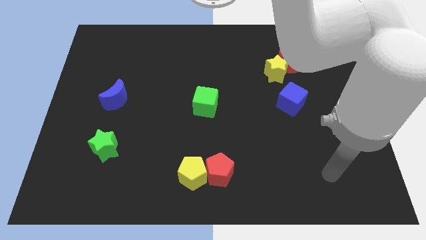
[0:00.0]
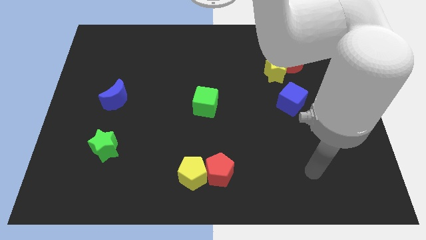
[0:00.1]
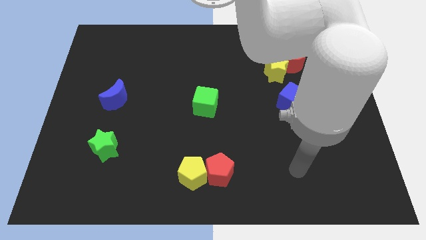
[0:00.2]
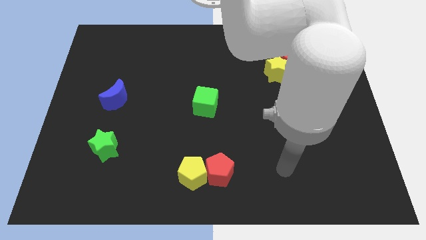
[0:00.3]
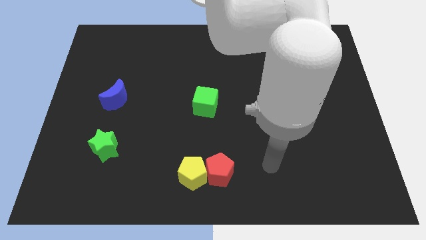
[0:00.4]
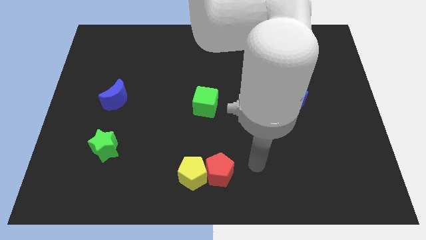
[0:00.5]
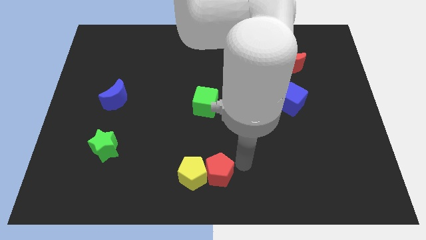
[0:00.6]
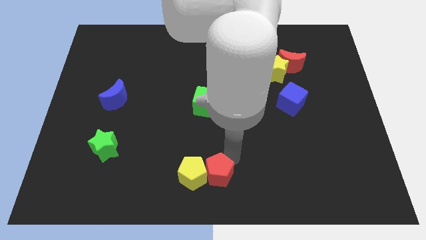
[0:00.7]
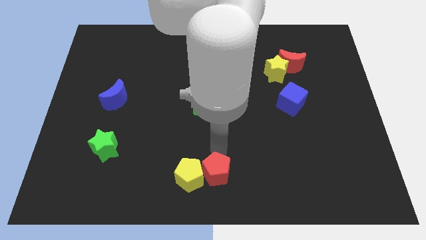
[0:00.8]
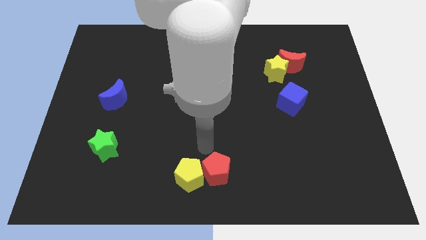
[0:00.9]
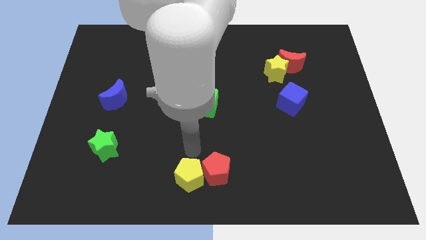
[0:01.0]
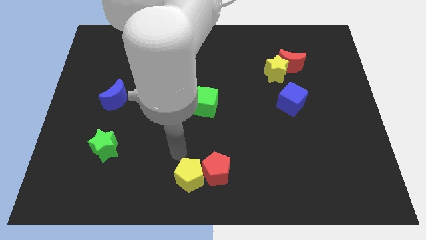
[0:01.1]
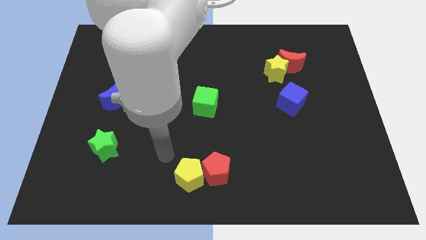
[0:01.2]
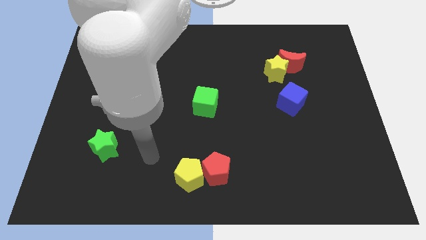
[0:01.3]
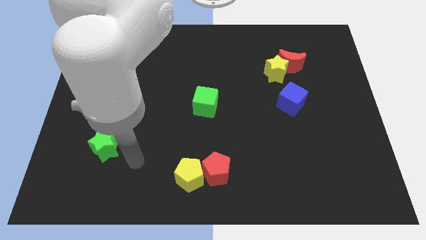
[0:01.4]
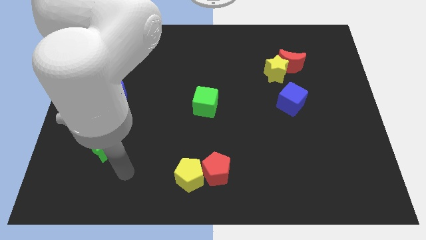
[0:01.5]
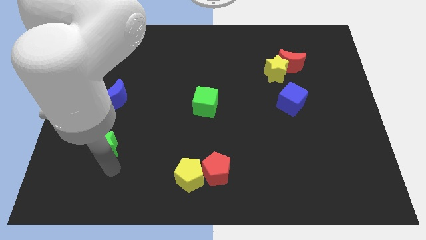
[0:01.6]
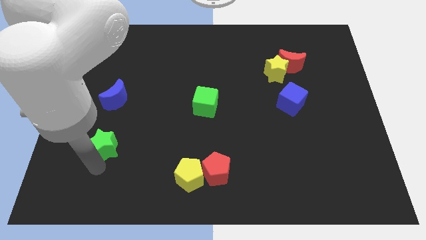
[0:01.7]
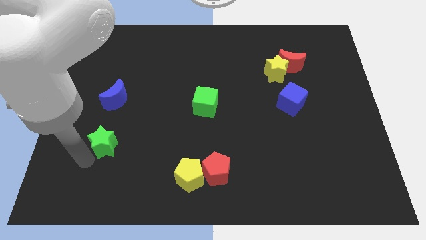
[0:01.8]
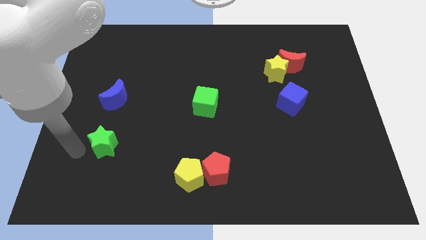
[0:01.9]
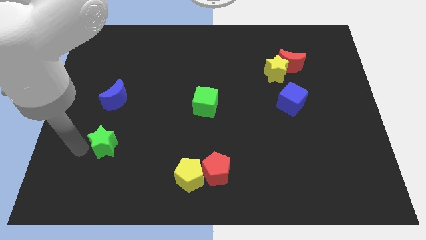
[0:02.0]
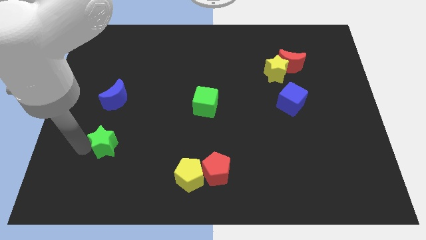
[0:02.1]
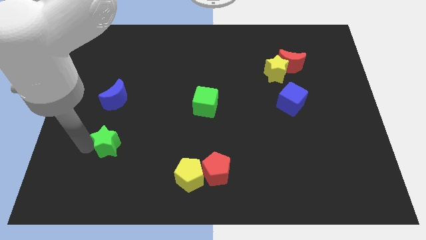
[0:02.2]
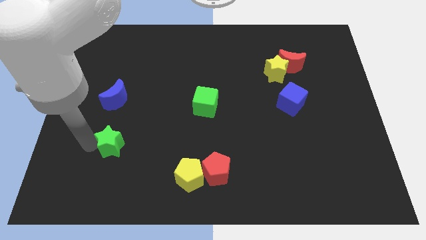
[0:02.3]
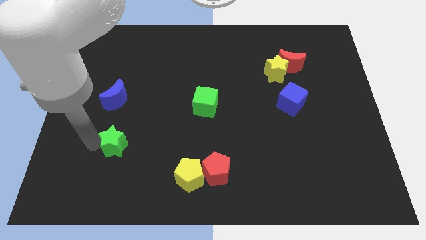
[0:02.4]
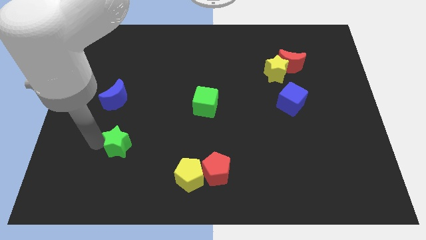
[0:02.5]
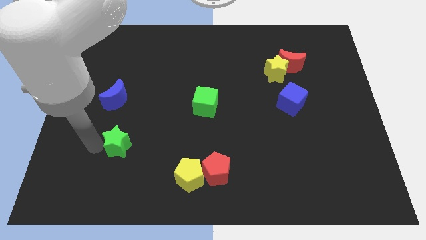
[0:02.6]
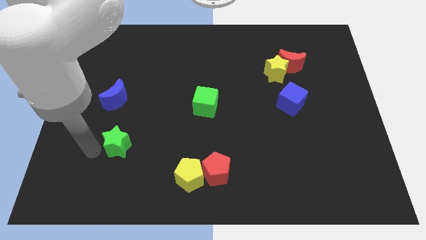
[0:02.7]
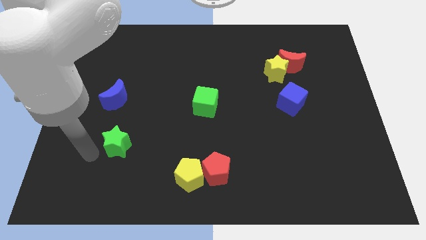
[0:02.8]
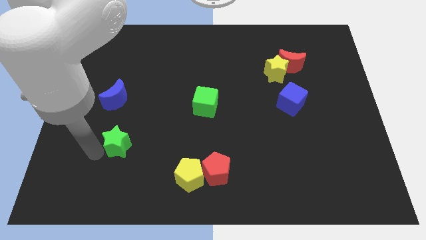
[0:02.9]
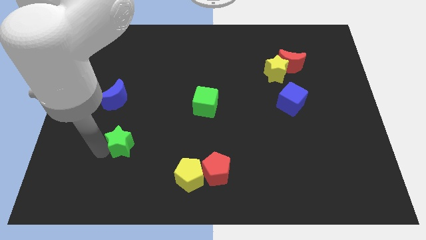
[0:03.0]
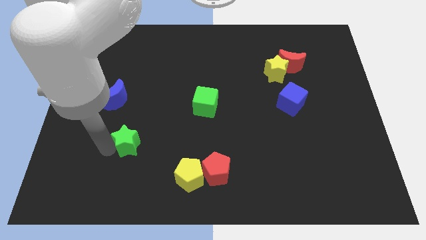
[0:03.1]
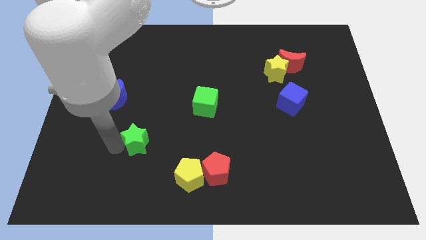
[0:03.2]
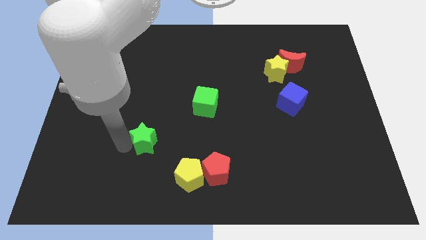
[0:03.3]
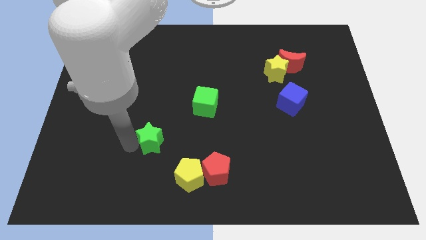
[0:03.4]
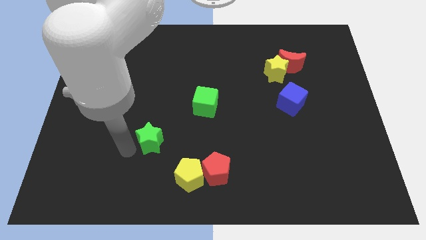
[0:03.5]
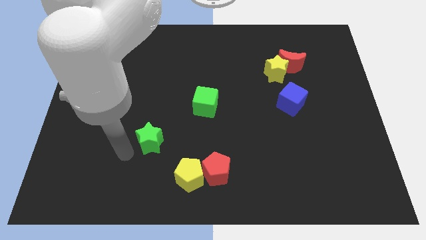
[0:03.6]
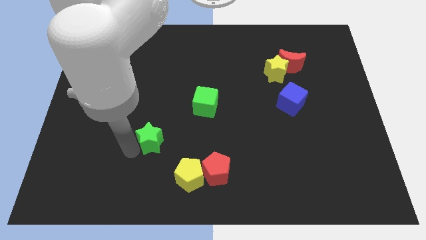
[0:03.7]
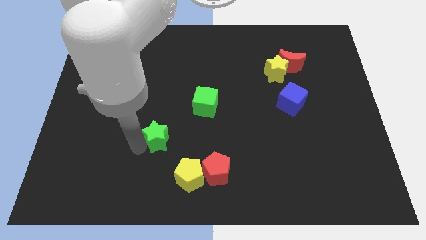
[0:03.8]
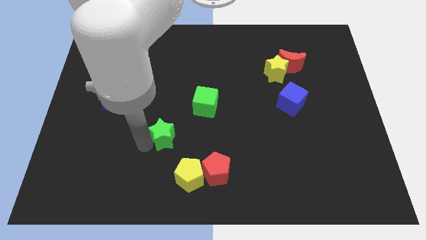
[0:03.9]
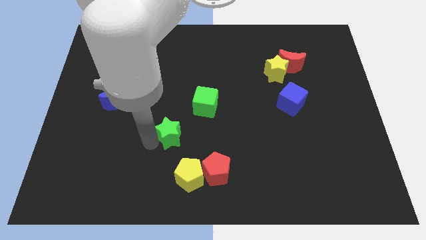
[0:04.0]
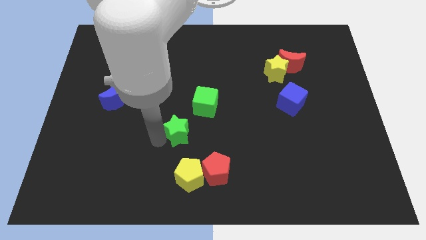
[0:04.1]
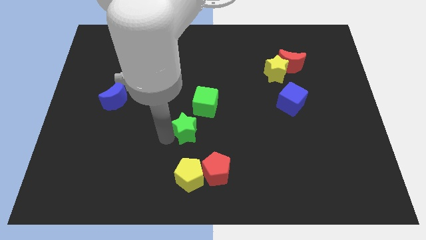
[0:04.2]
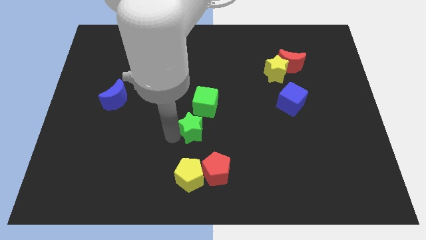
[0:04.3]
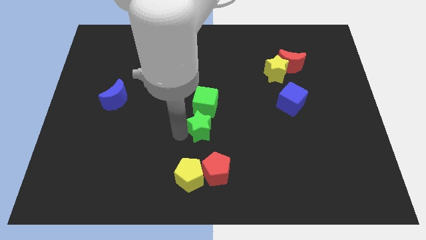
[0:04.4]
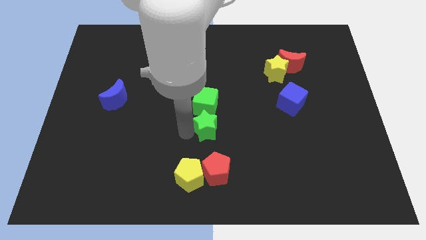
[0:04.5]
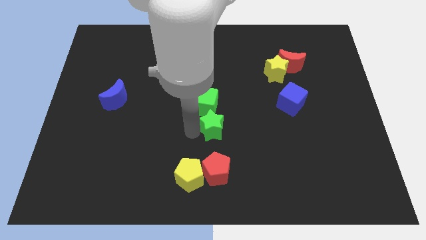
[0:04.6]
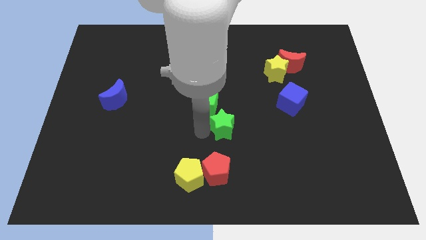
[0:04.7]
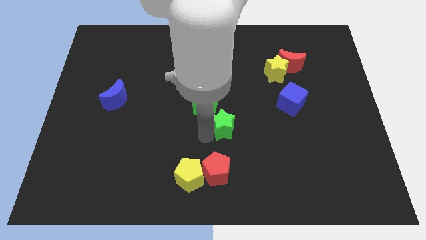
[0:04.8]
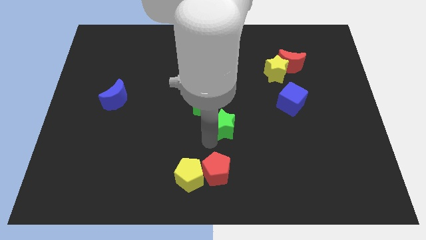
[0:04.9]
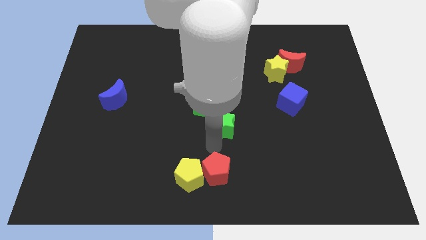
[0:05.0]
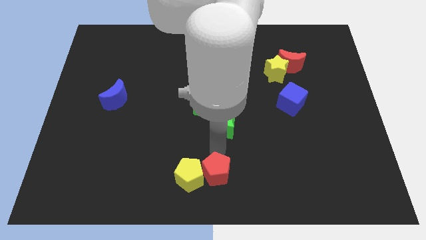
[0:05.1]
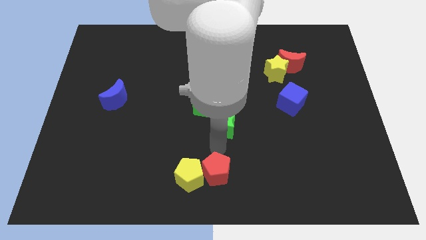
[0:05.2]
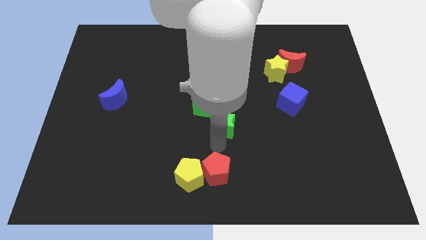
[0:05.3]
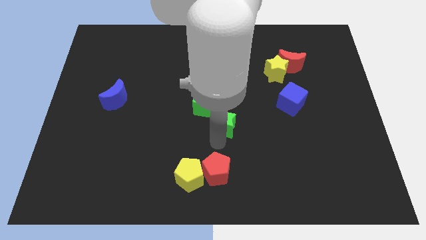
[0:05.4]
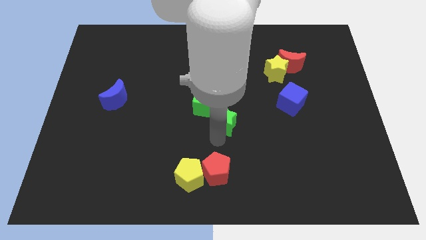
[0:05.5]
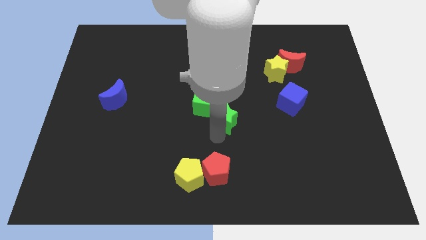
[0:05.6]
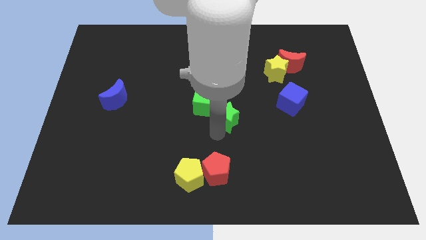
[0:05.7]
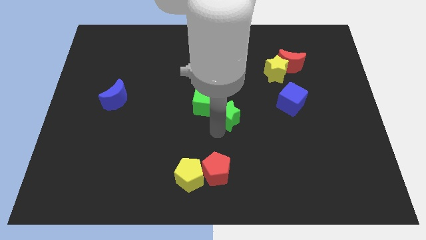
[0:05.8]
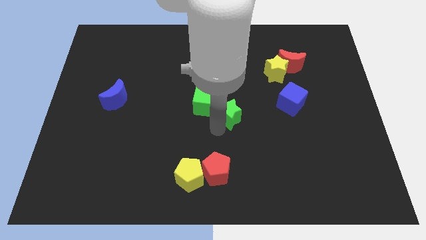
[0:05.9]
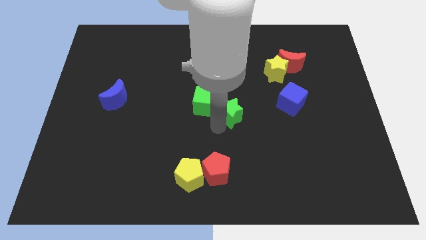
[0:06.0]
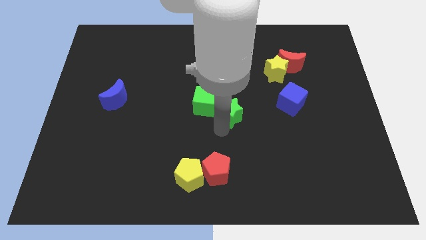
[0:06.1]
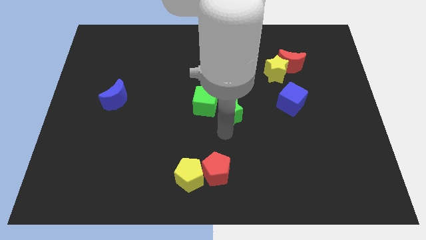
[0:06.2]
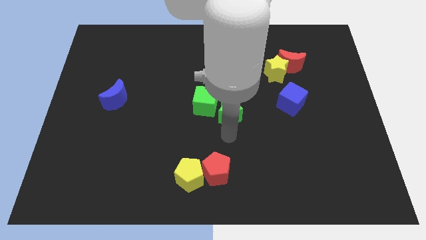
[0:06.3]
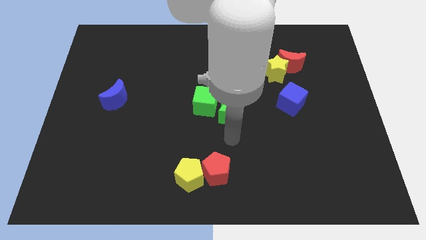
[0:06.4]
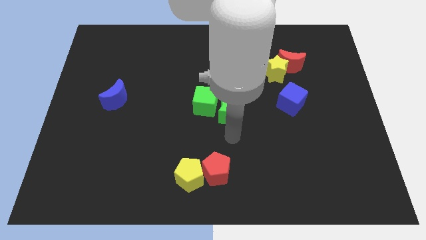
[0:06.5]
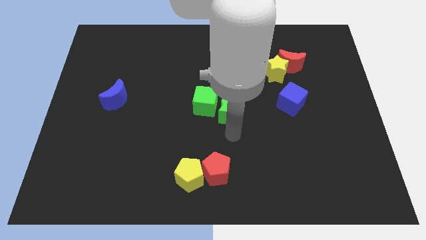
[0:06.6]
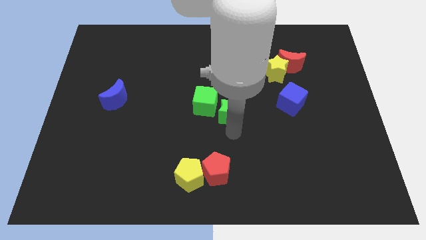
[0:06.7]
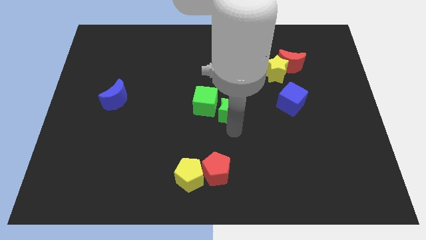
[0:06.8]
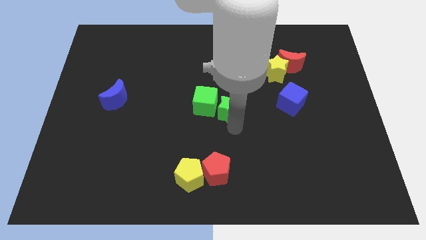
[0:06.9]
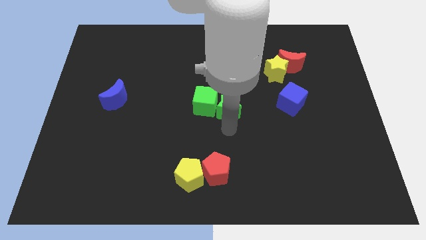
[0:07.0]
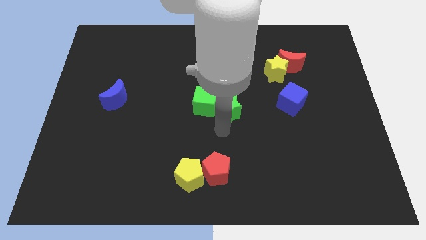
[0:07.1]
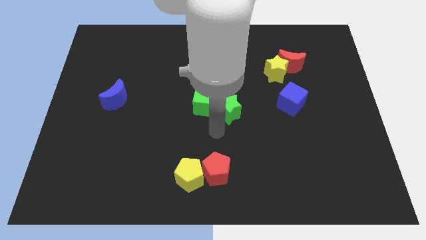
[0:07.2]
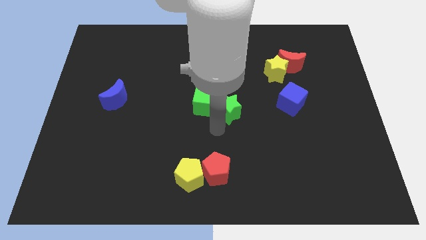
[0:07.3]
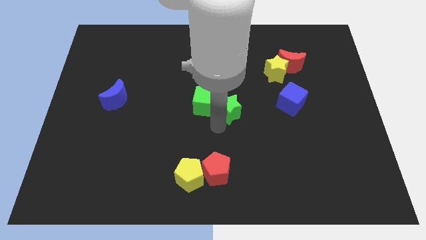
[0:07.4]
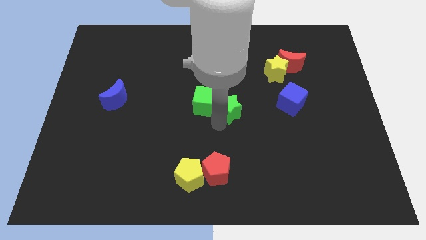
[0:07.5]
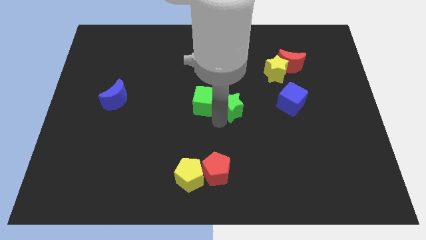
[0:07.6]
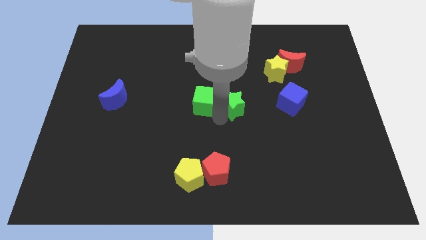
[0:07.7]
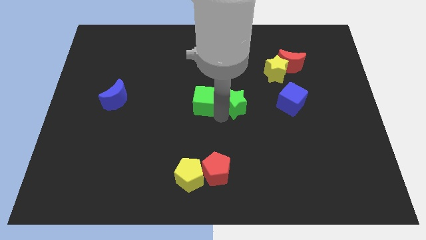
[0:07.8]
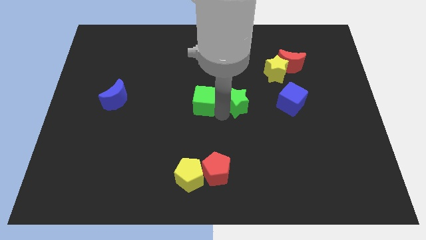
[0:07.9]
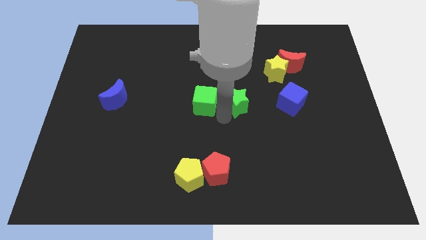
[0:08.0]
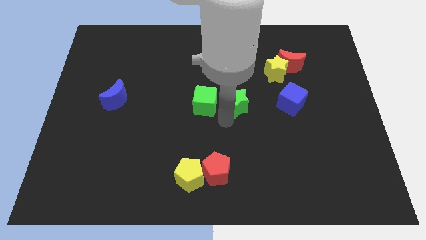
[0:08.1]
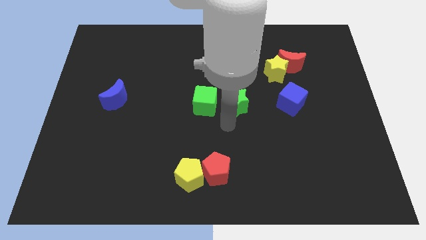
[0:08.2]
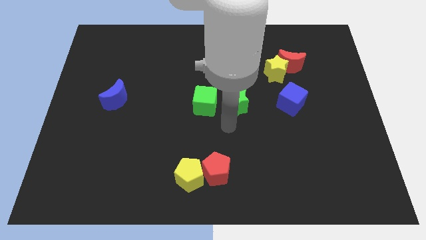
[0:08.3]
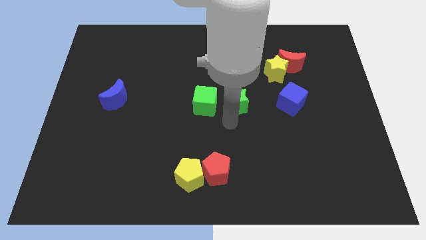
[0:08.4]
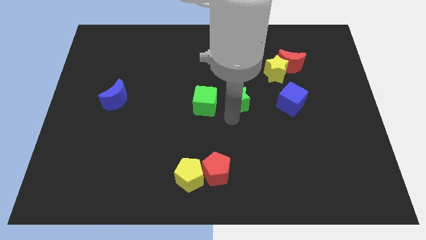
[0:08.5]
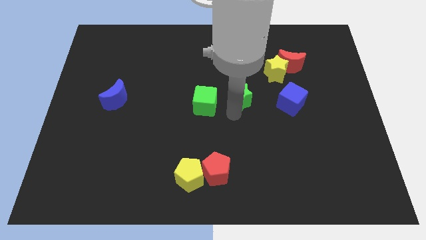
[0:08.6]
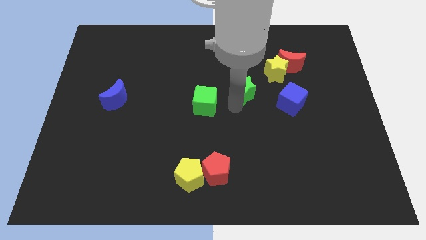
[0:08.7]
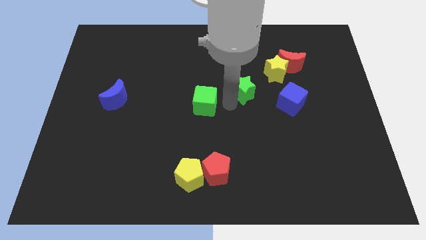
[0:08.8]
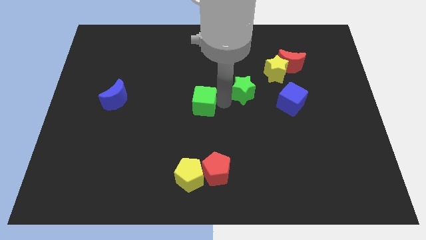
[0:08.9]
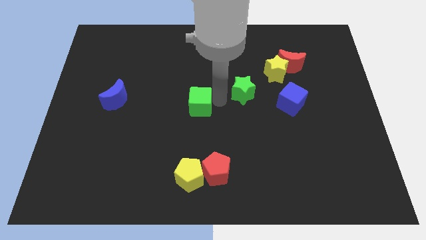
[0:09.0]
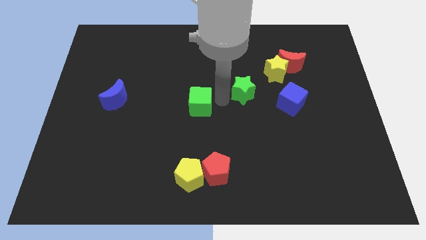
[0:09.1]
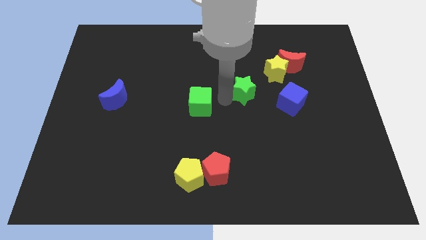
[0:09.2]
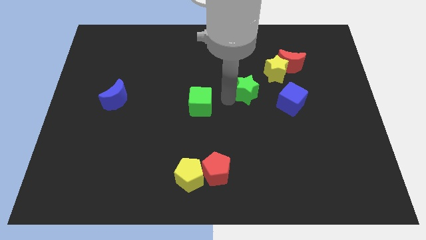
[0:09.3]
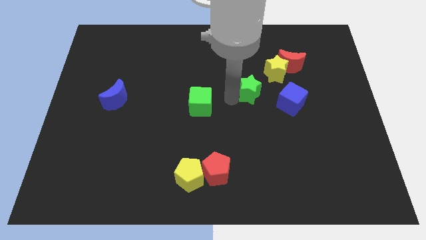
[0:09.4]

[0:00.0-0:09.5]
put the green star to the top left side of the blue cube
